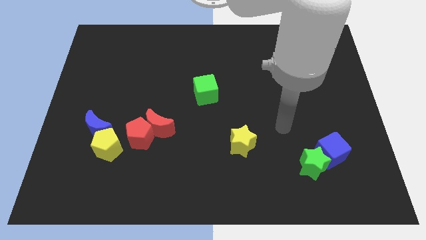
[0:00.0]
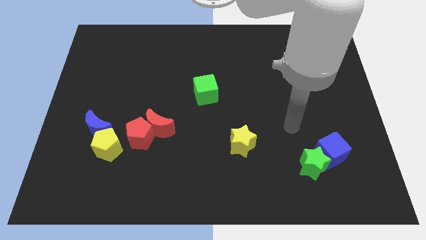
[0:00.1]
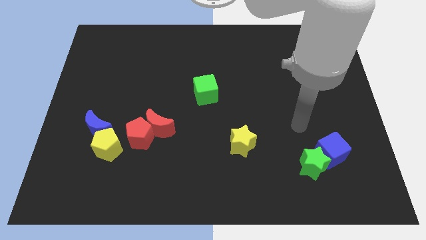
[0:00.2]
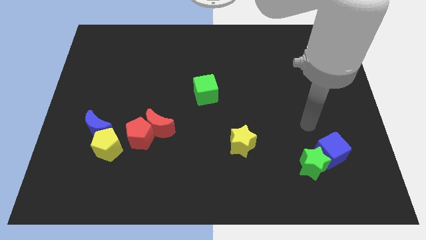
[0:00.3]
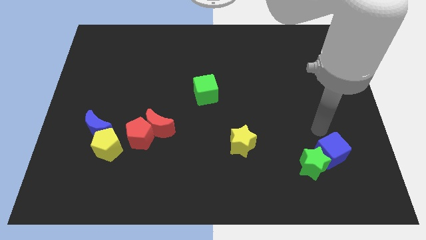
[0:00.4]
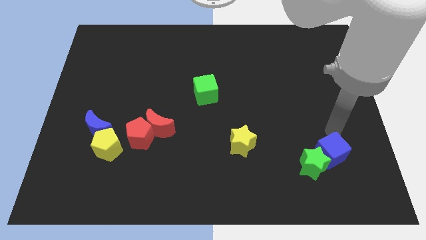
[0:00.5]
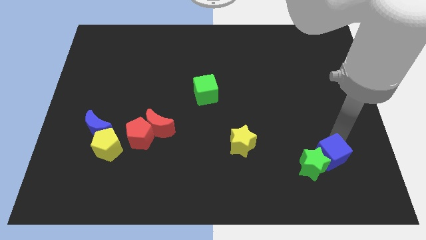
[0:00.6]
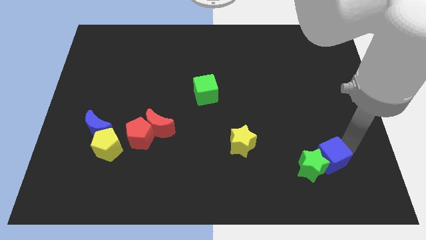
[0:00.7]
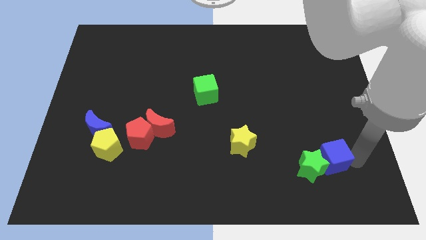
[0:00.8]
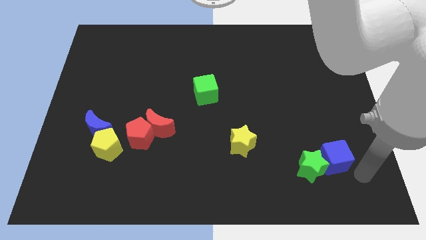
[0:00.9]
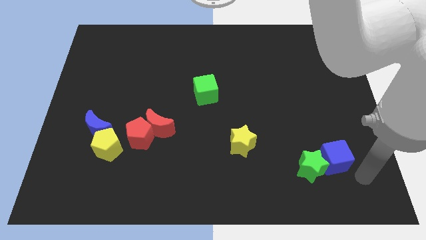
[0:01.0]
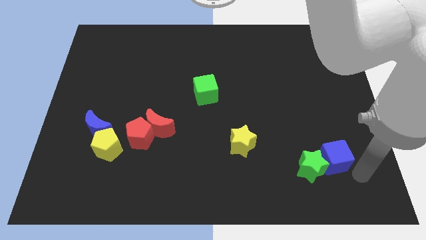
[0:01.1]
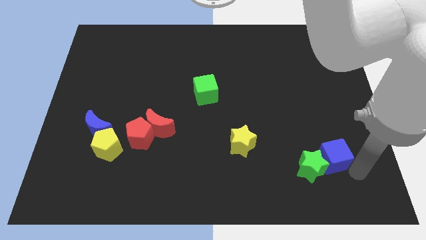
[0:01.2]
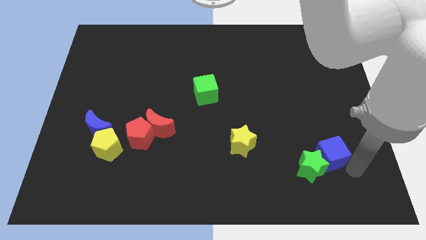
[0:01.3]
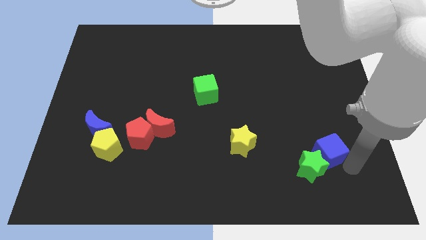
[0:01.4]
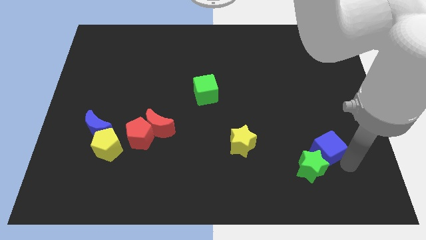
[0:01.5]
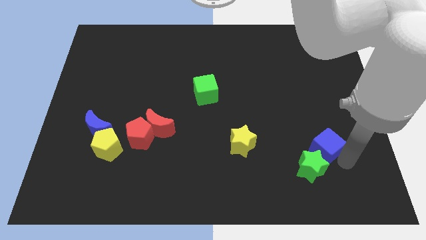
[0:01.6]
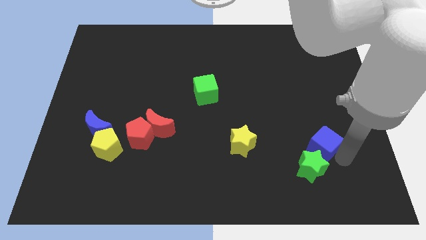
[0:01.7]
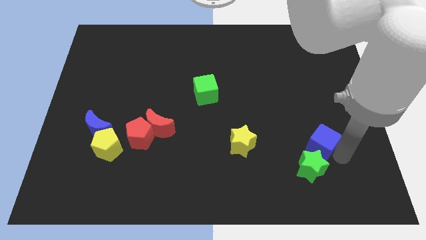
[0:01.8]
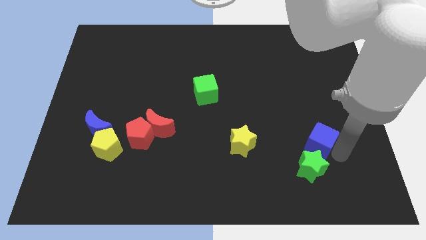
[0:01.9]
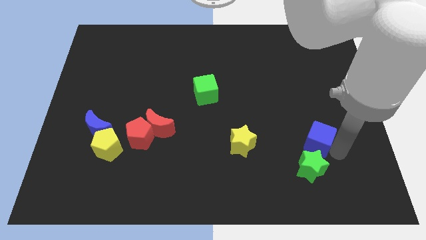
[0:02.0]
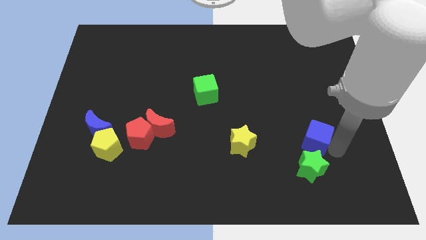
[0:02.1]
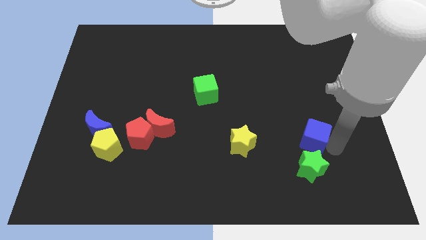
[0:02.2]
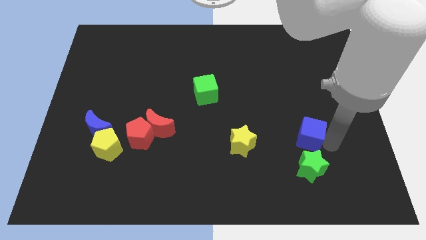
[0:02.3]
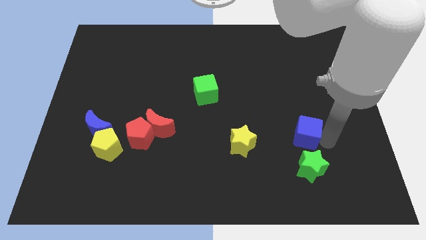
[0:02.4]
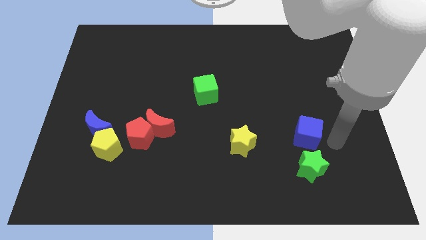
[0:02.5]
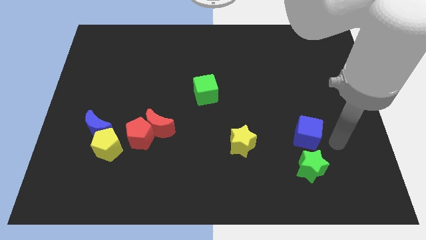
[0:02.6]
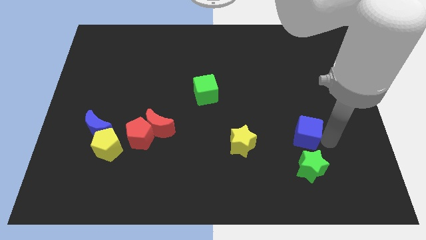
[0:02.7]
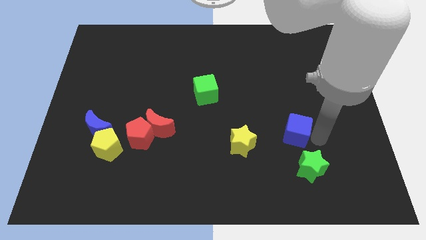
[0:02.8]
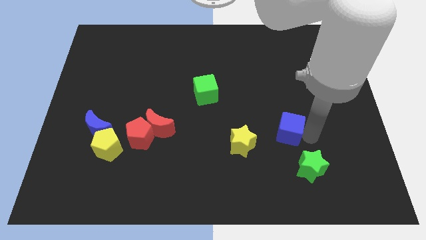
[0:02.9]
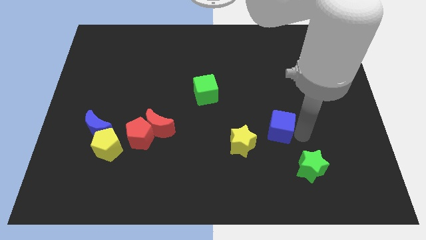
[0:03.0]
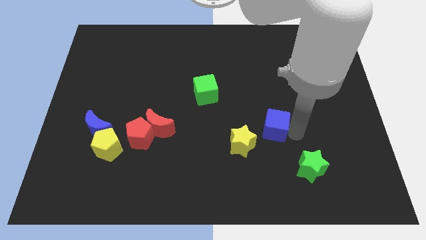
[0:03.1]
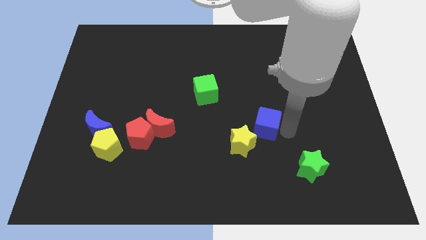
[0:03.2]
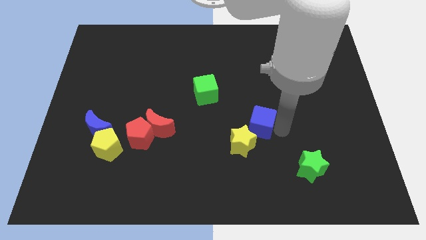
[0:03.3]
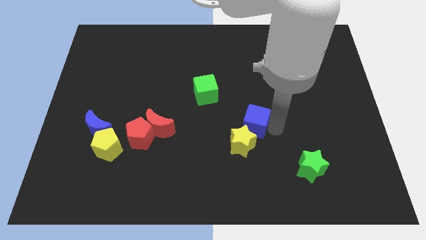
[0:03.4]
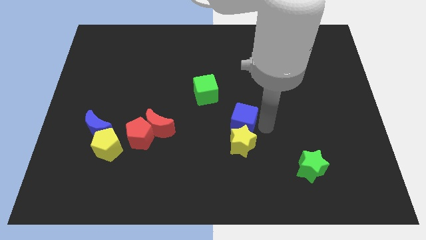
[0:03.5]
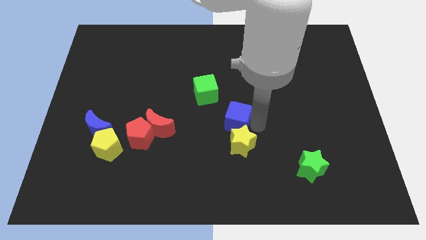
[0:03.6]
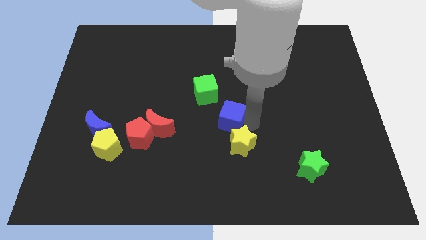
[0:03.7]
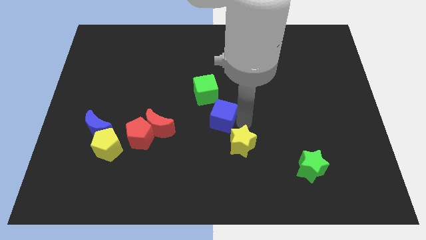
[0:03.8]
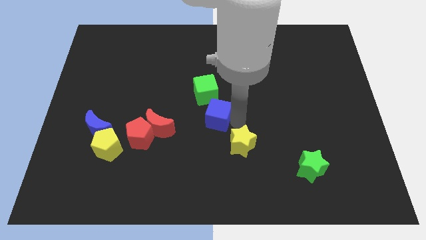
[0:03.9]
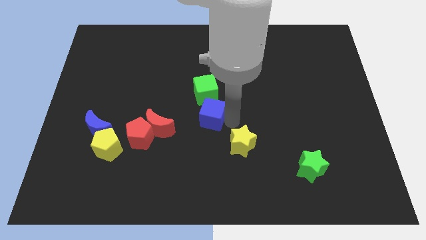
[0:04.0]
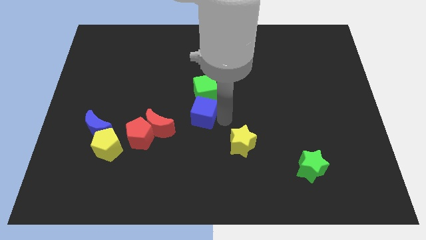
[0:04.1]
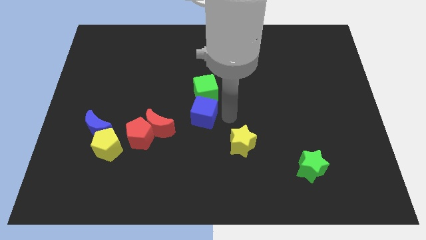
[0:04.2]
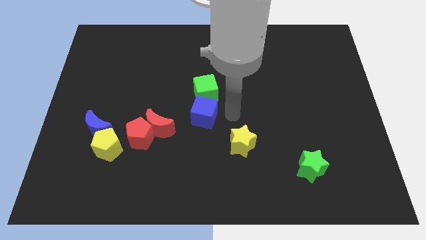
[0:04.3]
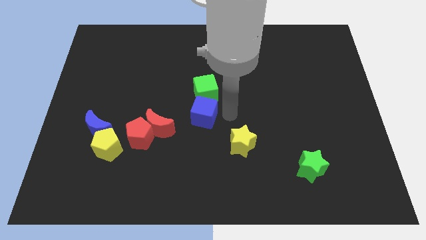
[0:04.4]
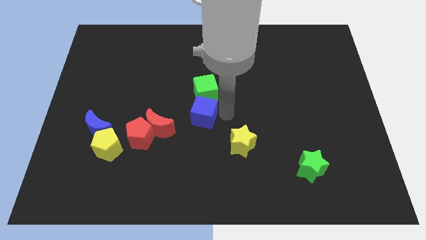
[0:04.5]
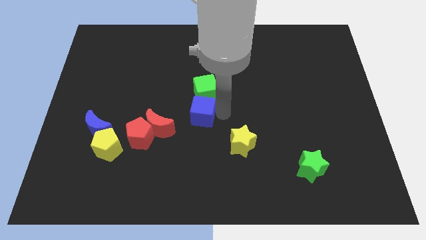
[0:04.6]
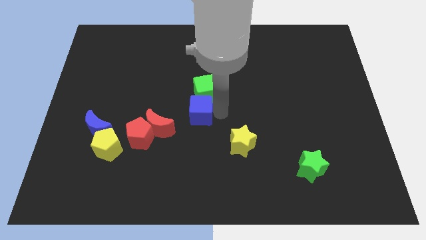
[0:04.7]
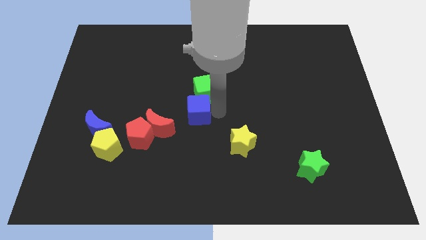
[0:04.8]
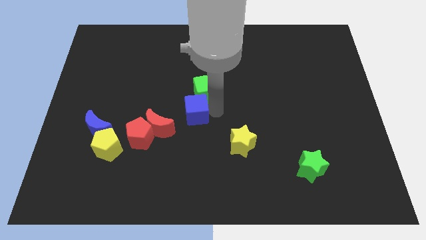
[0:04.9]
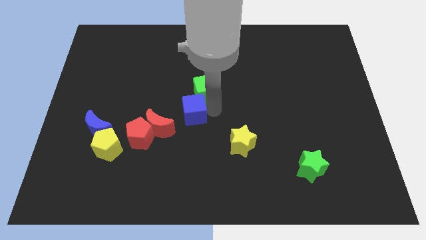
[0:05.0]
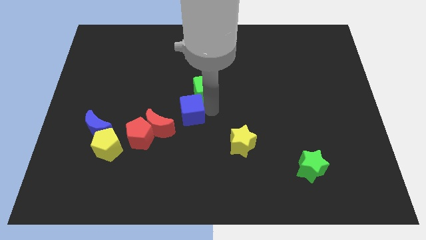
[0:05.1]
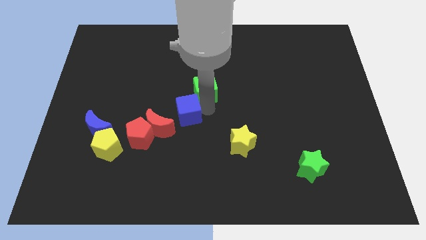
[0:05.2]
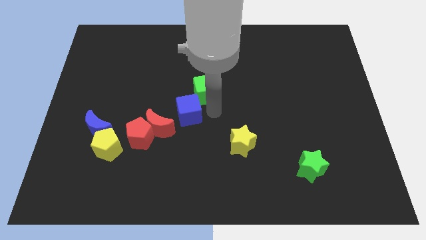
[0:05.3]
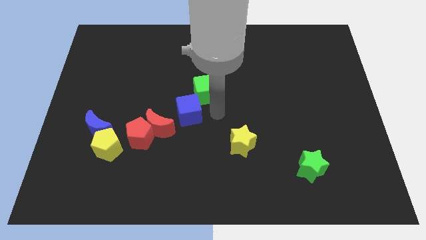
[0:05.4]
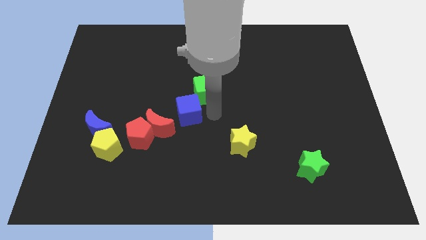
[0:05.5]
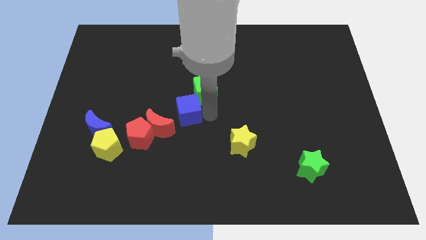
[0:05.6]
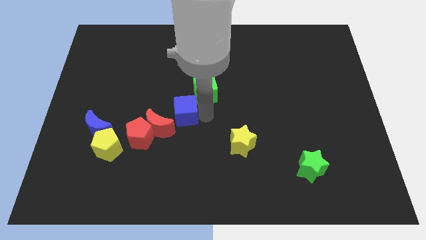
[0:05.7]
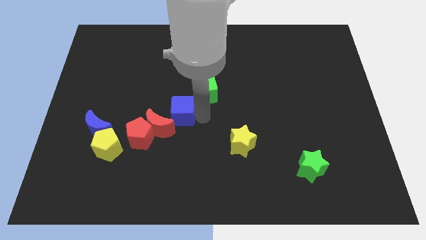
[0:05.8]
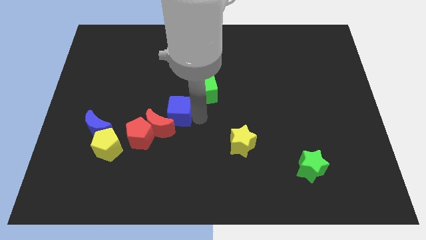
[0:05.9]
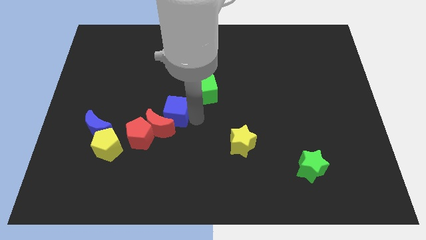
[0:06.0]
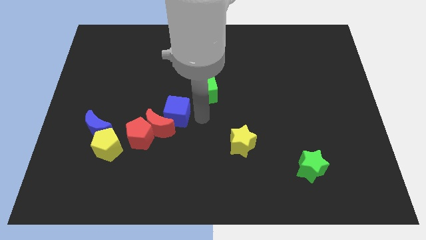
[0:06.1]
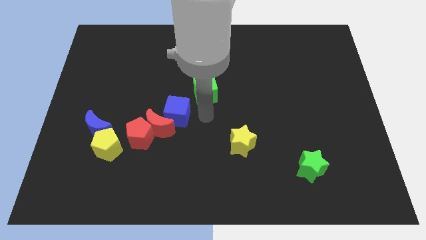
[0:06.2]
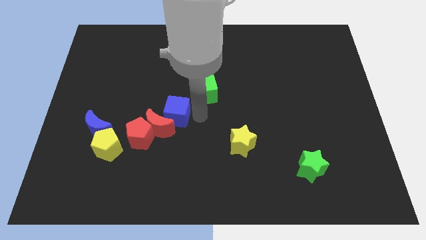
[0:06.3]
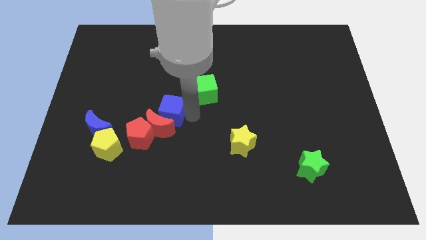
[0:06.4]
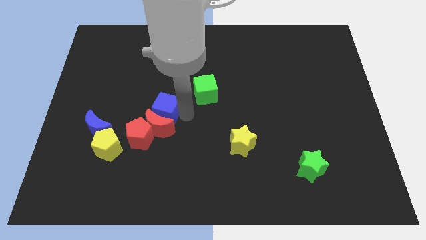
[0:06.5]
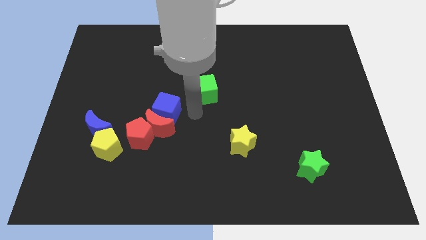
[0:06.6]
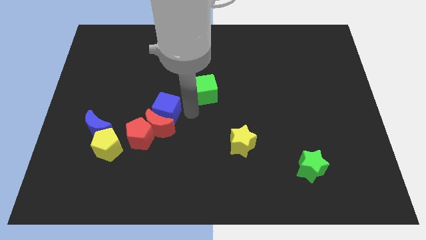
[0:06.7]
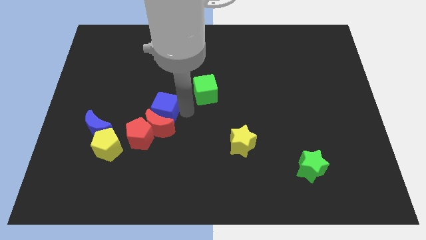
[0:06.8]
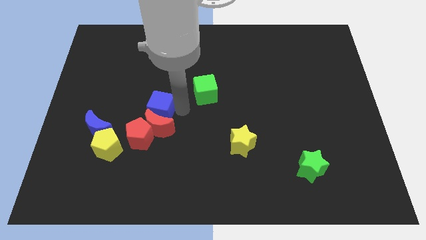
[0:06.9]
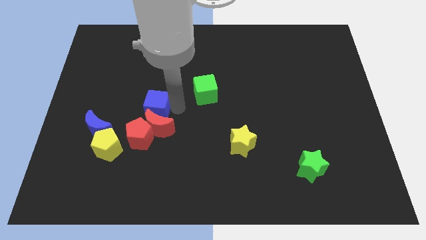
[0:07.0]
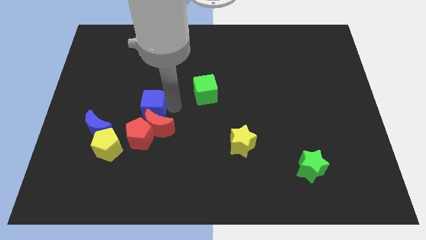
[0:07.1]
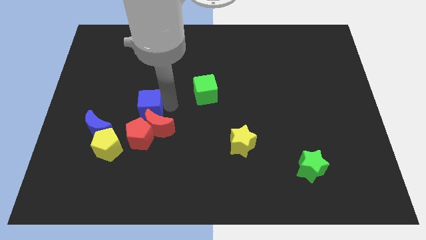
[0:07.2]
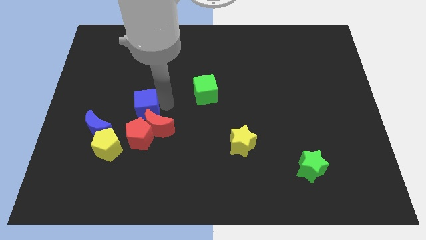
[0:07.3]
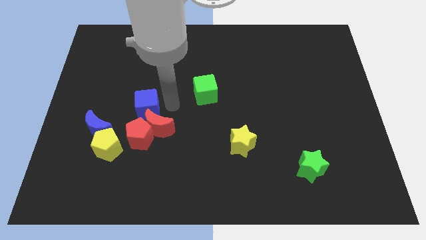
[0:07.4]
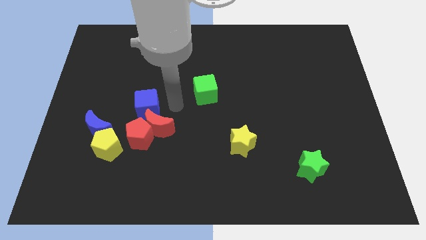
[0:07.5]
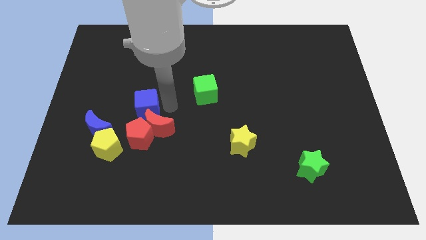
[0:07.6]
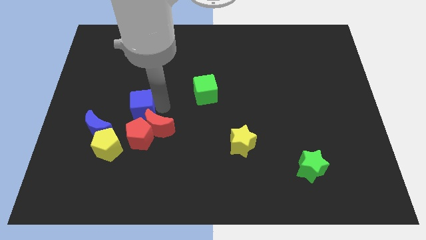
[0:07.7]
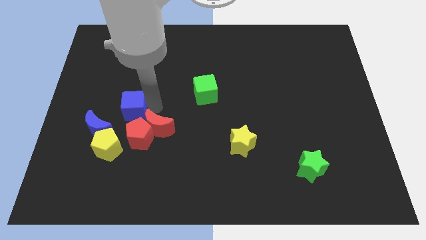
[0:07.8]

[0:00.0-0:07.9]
slide the blue cube to the top side of the yellow pentagon

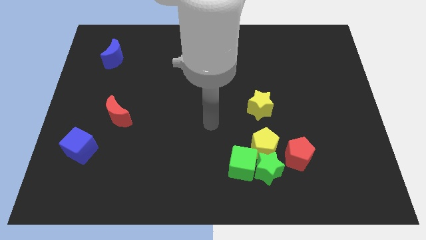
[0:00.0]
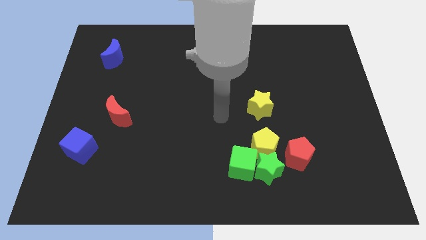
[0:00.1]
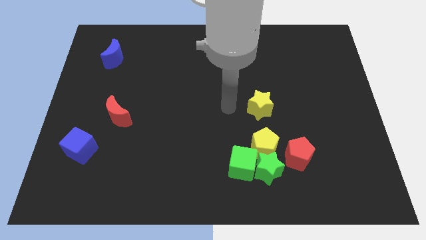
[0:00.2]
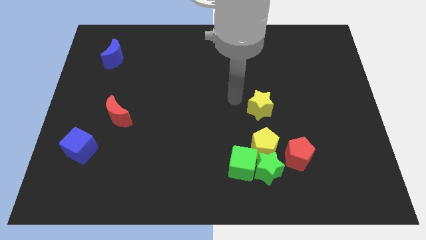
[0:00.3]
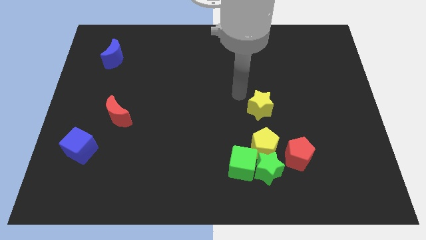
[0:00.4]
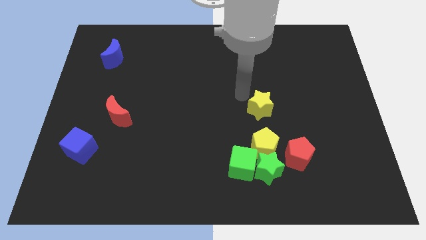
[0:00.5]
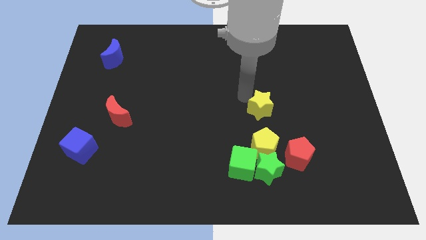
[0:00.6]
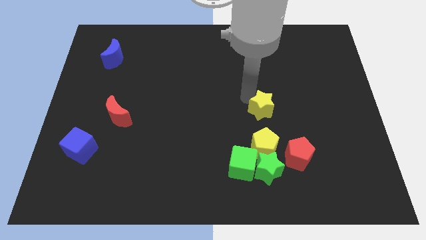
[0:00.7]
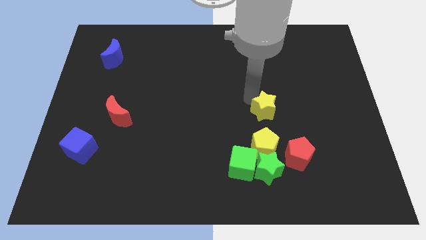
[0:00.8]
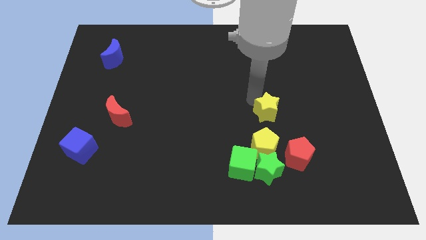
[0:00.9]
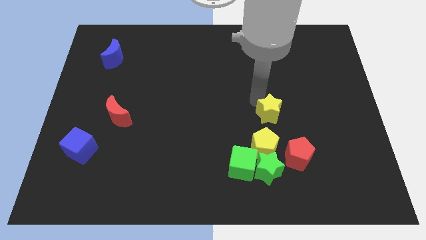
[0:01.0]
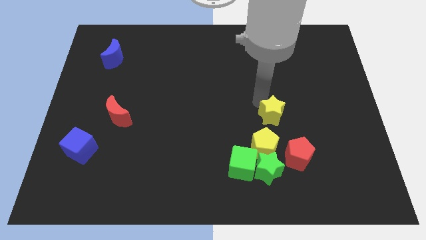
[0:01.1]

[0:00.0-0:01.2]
put the yellow star to the top right of the yellow pentagon
